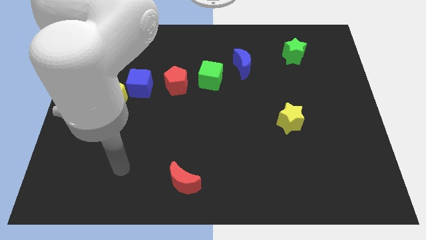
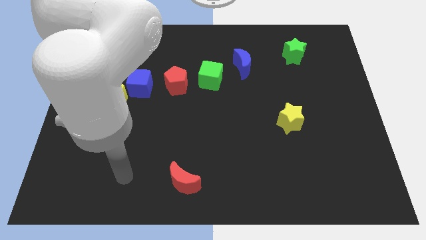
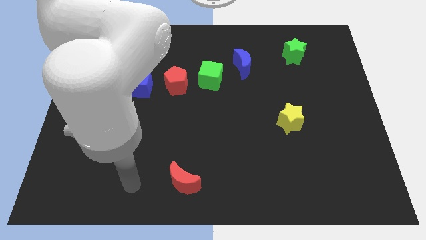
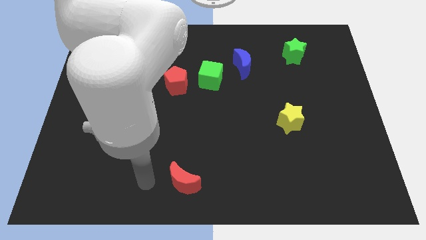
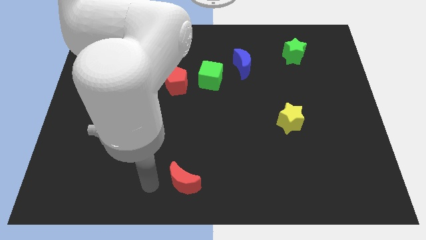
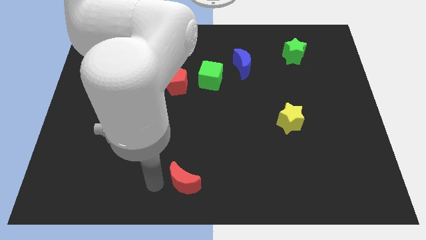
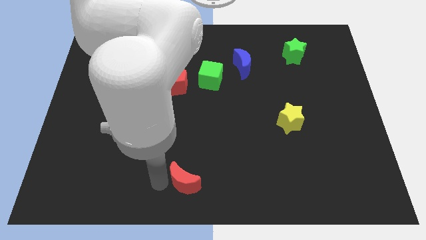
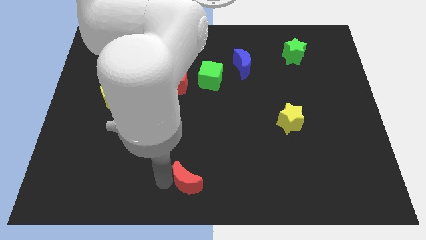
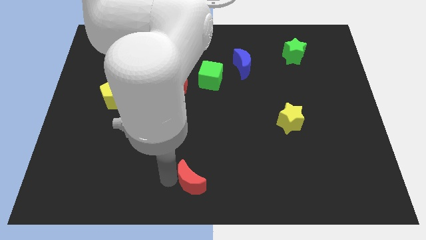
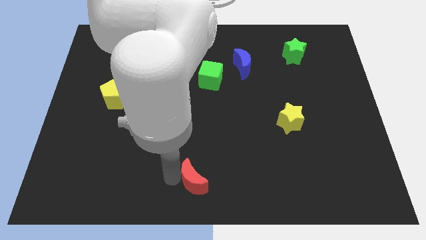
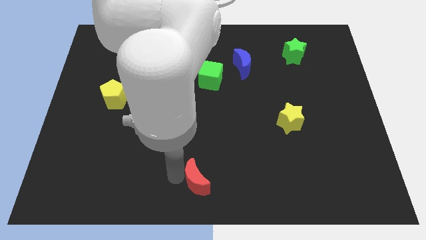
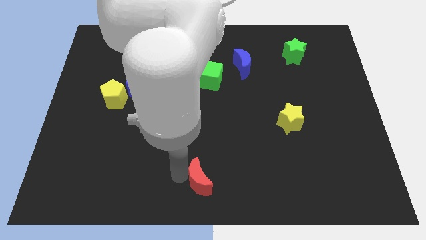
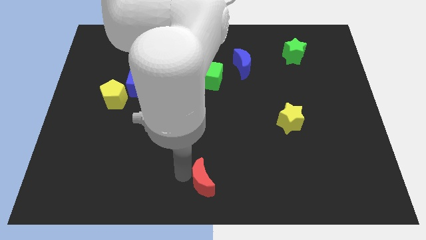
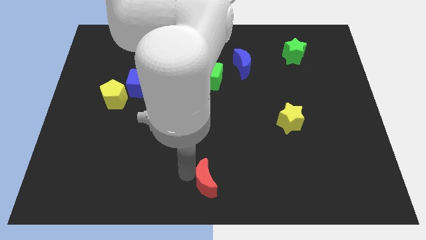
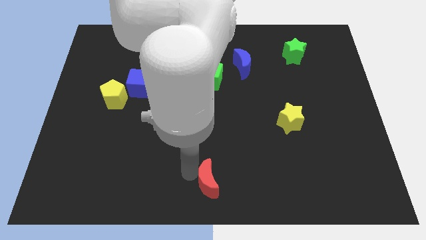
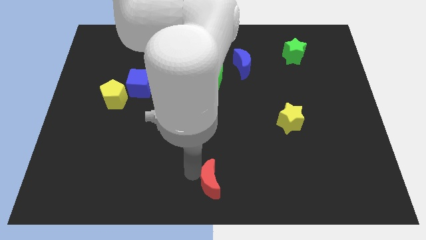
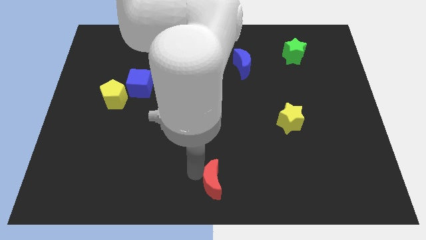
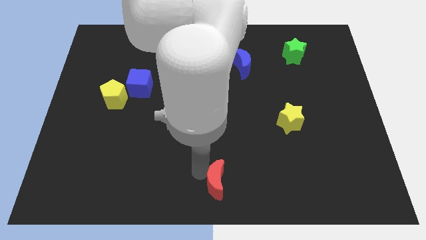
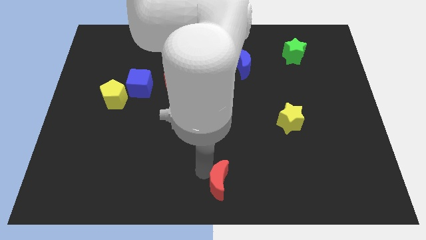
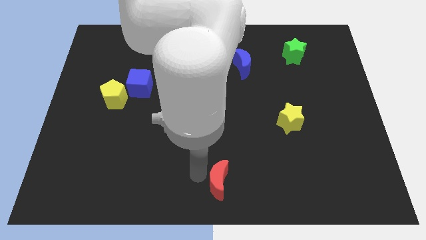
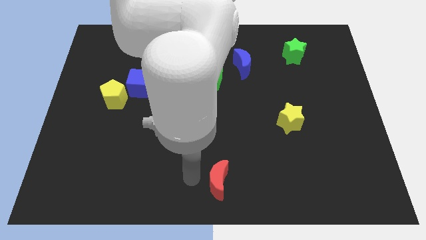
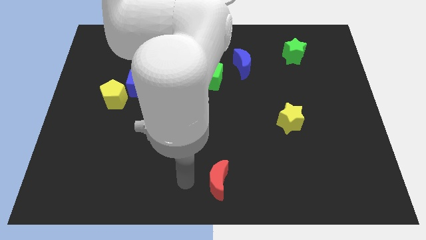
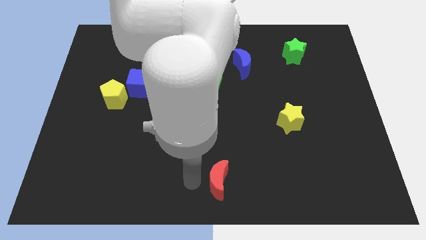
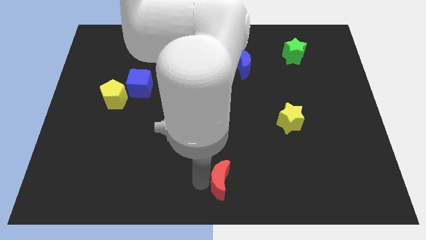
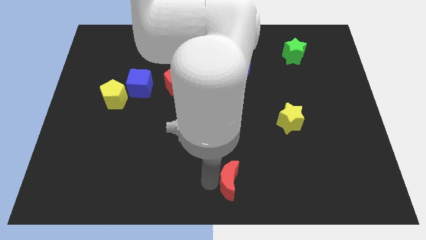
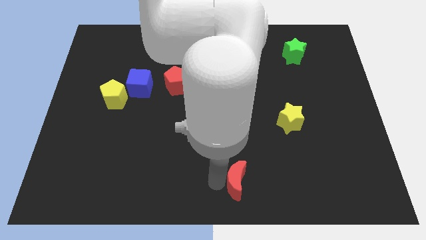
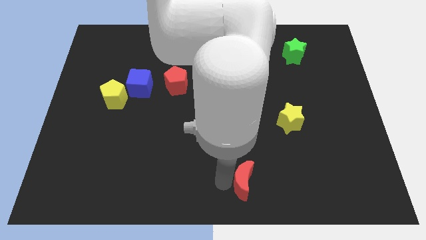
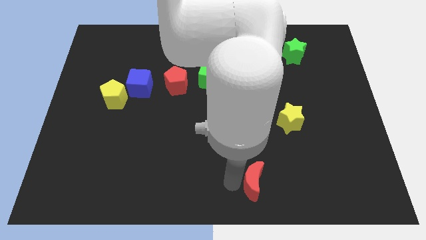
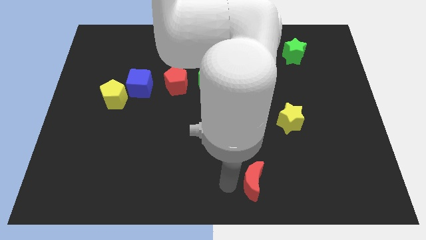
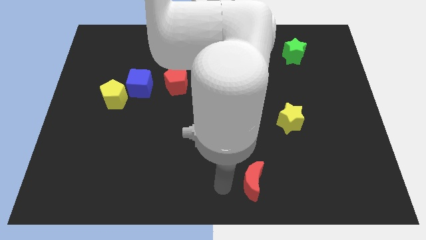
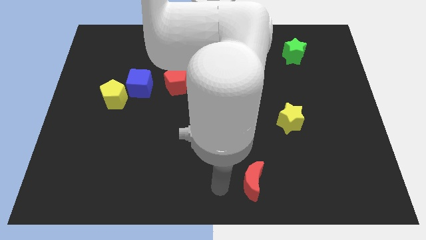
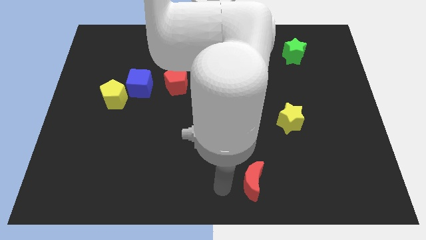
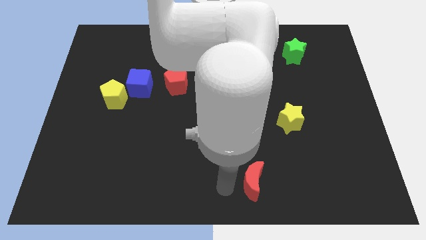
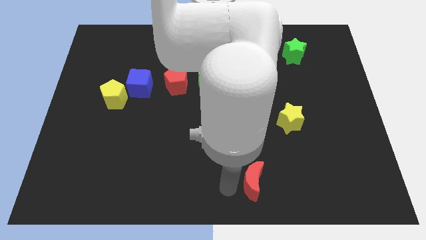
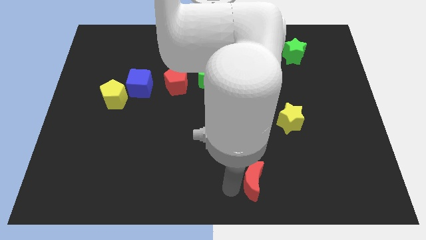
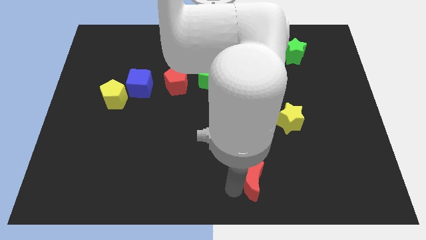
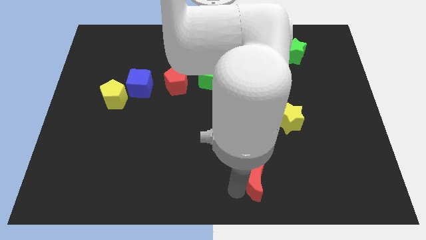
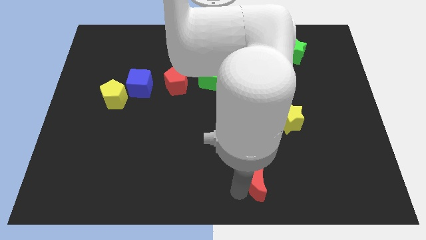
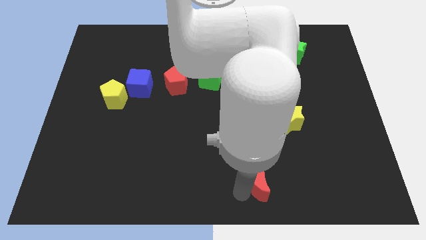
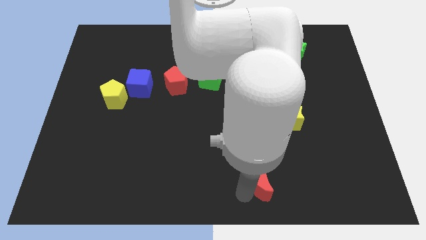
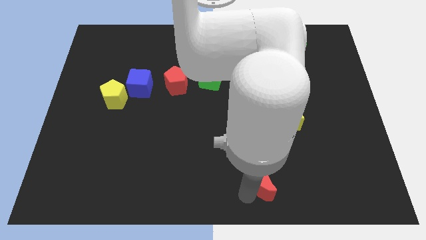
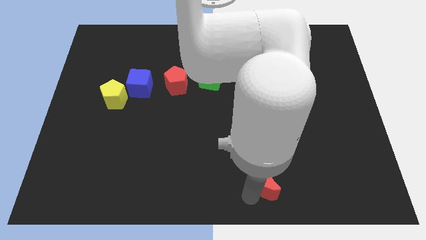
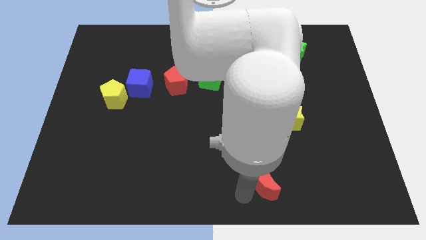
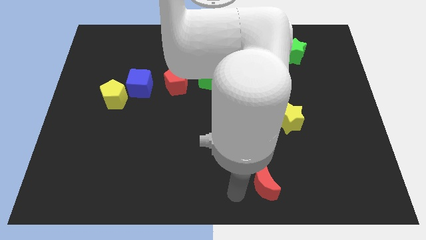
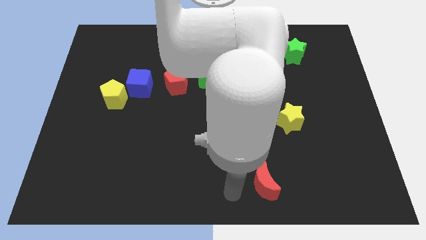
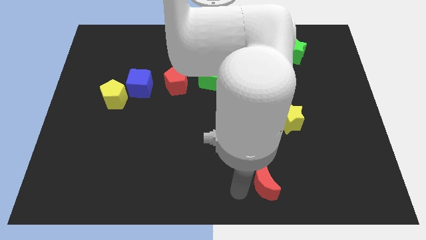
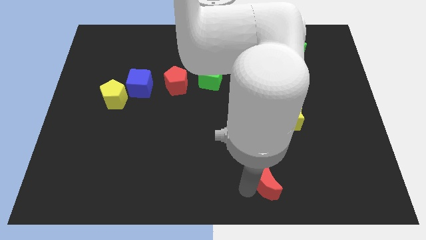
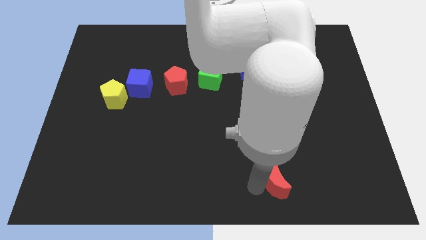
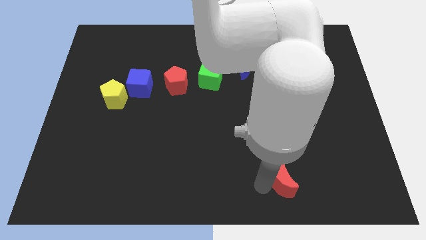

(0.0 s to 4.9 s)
move the red moon right

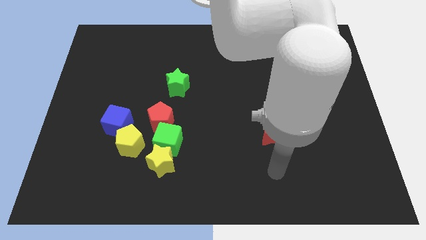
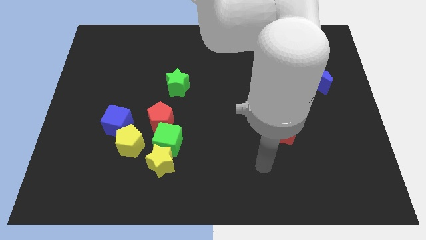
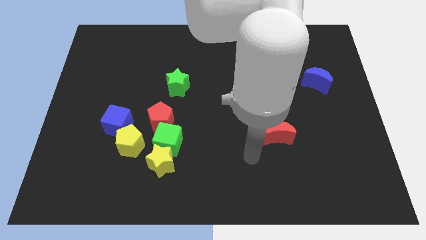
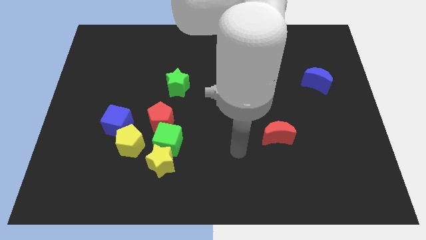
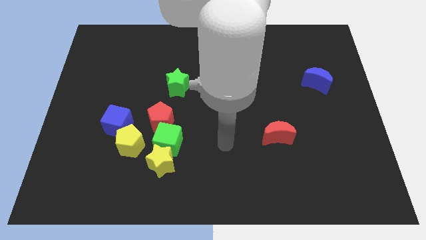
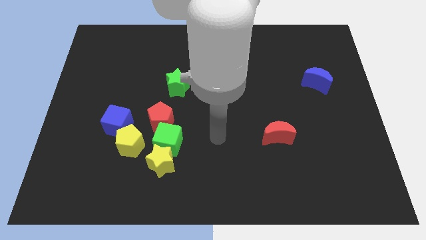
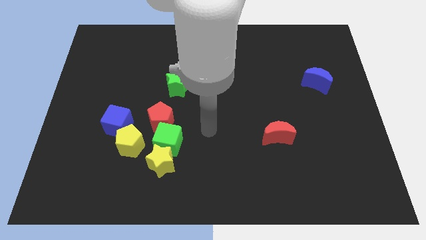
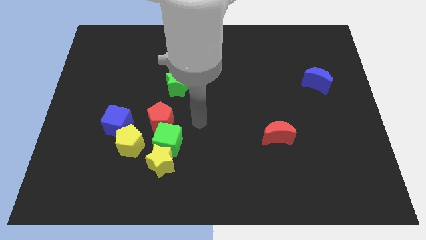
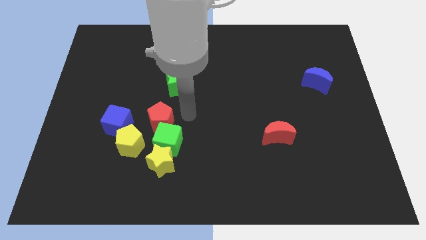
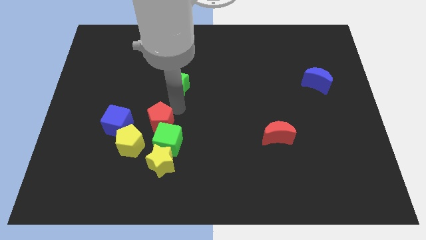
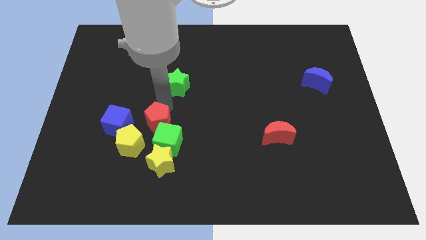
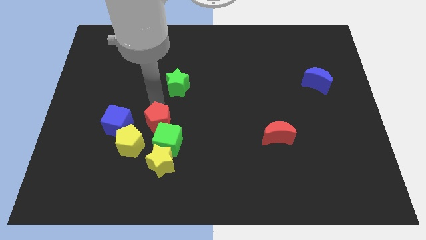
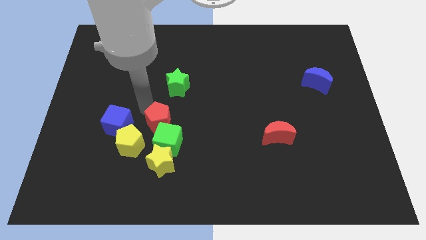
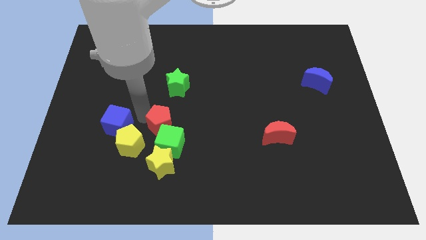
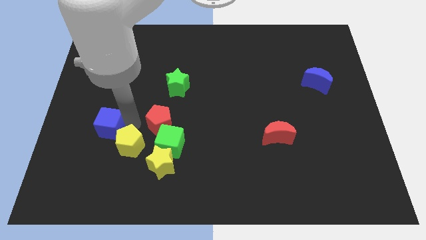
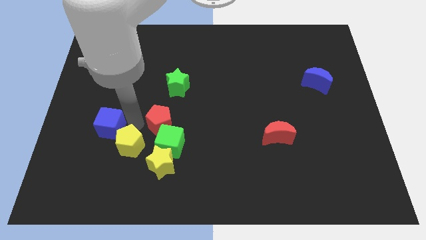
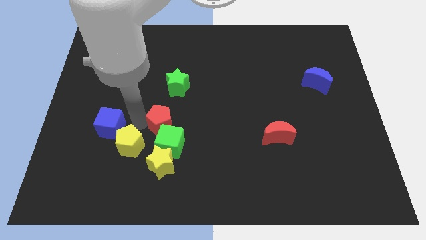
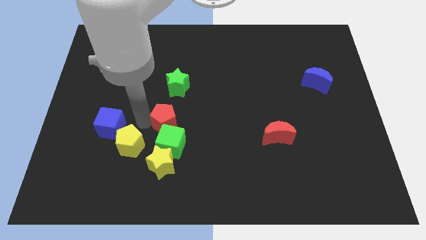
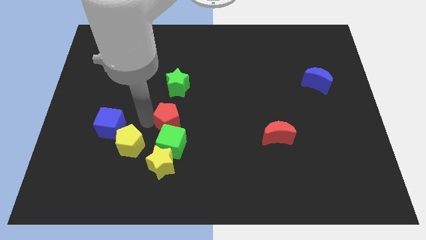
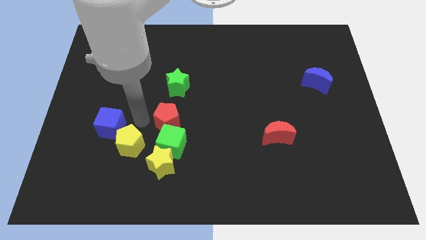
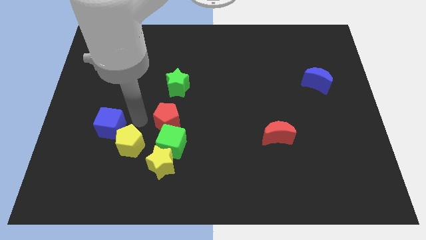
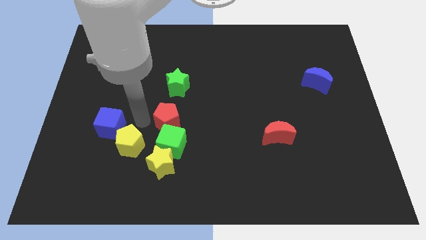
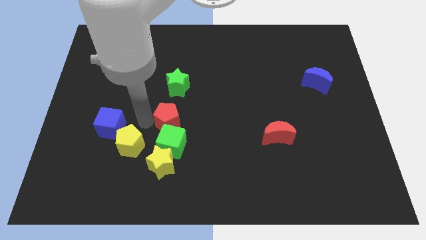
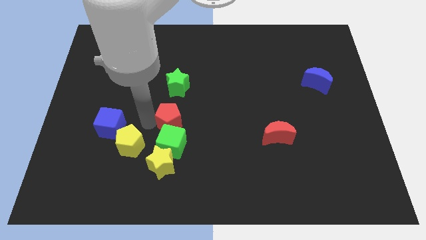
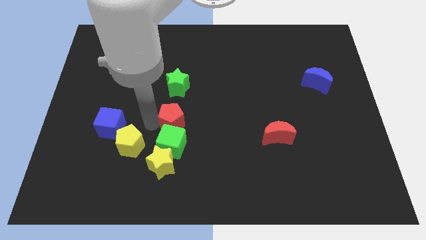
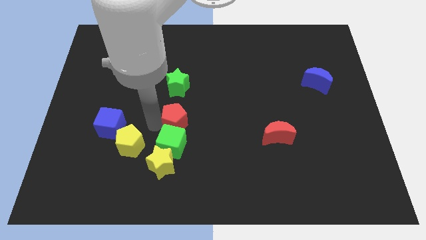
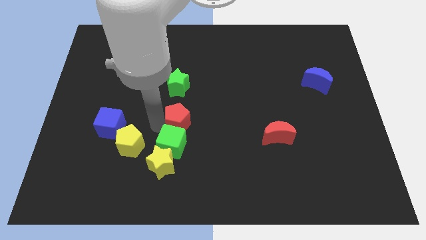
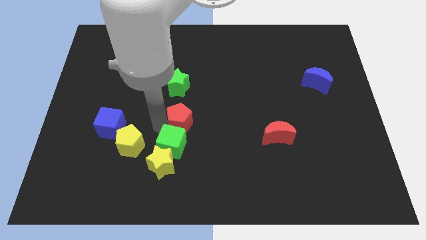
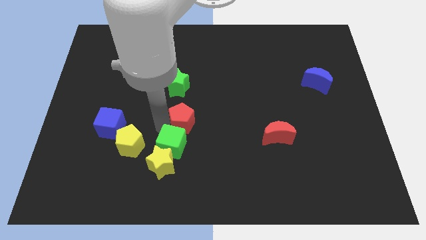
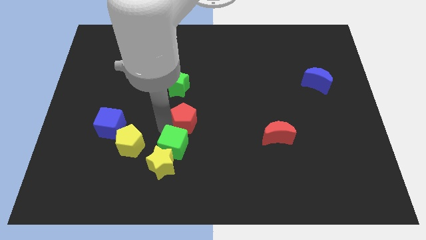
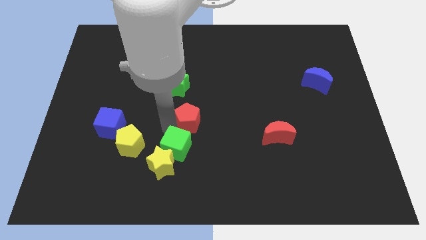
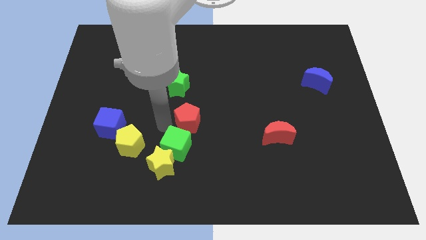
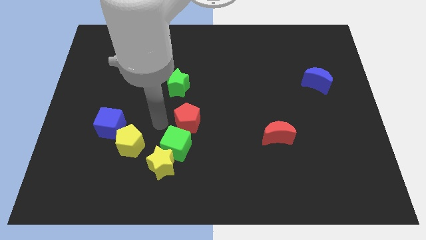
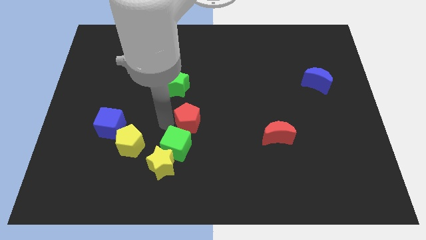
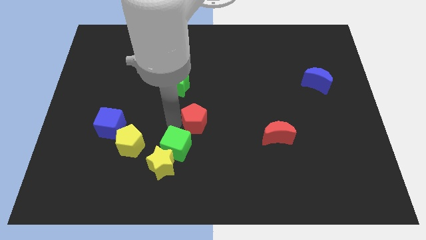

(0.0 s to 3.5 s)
slide the red pentagon right a bit
